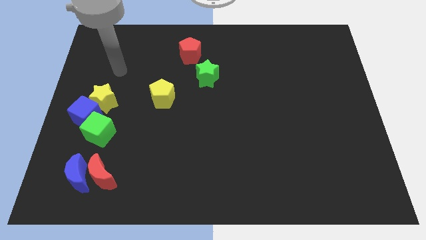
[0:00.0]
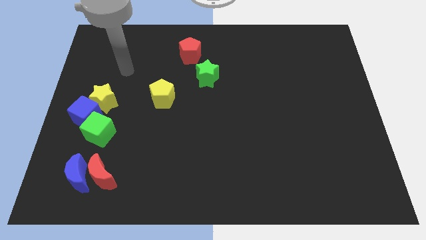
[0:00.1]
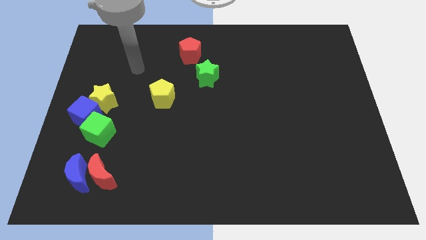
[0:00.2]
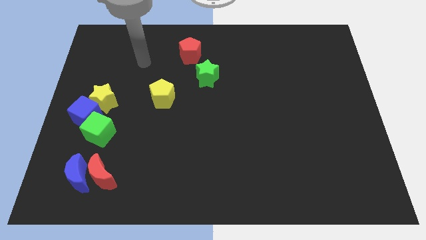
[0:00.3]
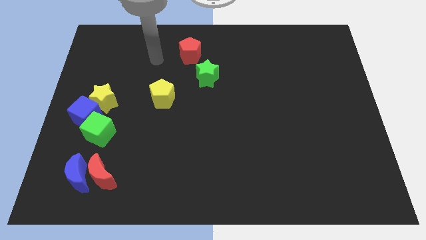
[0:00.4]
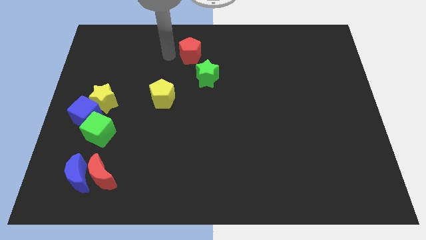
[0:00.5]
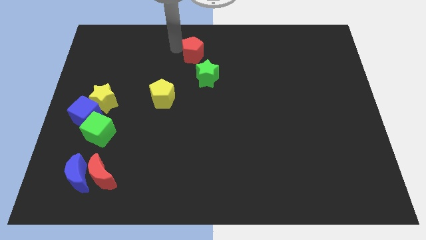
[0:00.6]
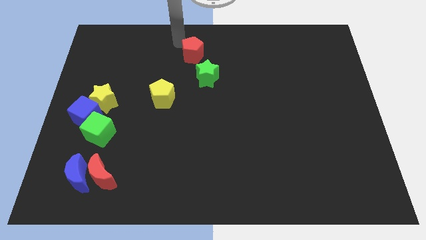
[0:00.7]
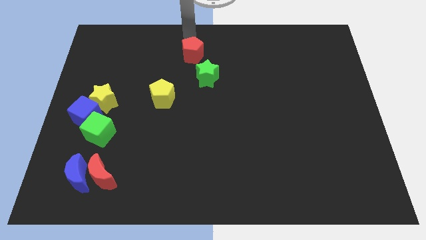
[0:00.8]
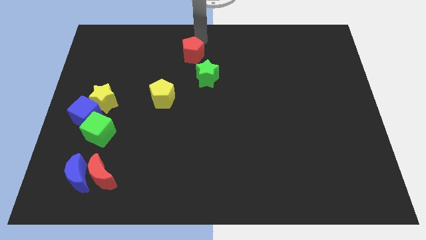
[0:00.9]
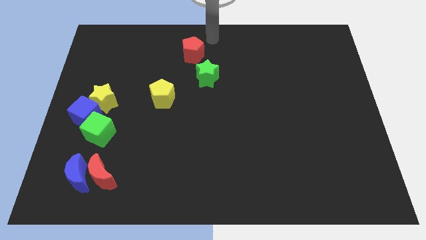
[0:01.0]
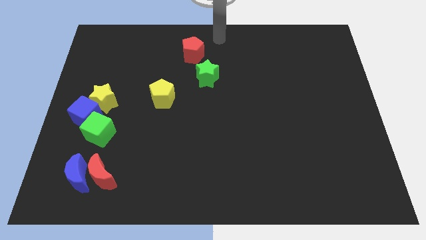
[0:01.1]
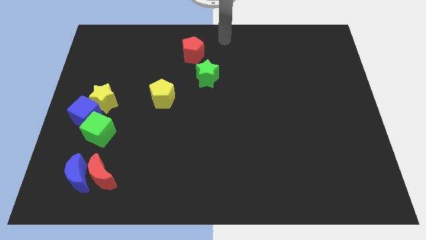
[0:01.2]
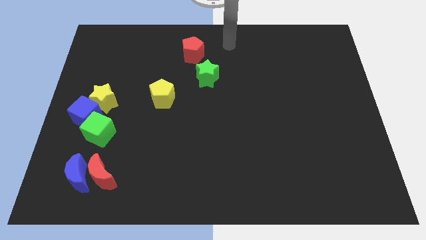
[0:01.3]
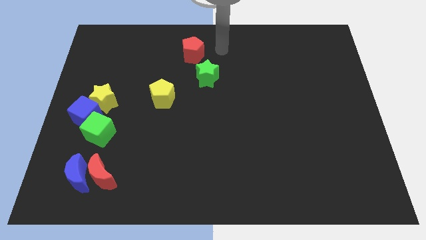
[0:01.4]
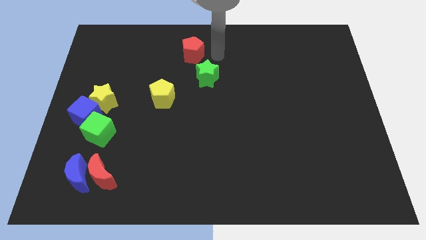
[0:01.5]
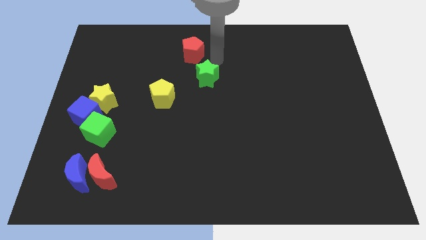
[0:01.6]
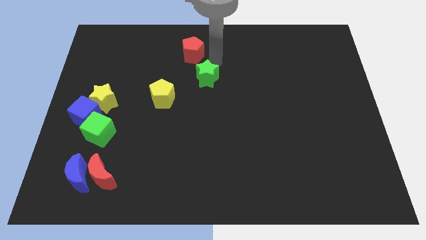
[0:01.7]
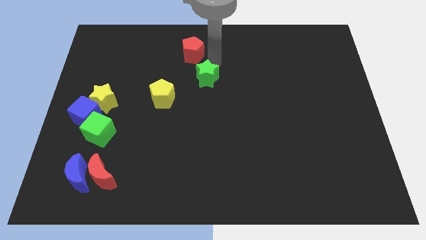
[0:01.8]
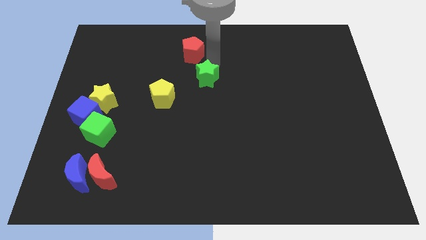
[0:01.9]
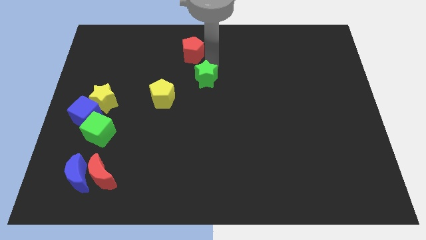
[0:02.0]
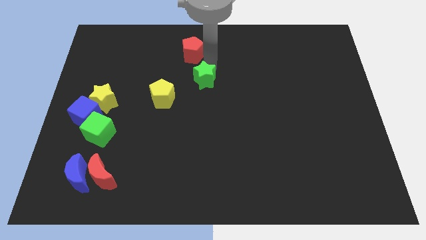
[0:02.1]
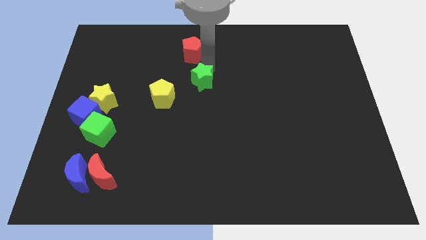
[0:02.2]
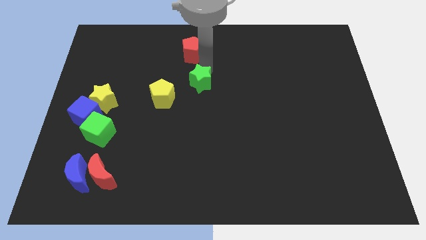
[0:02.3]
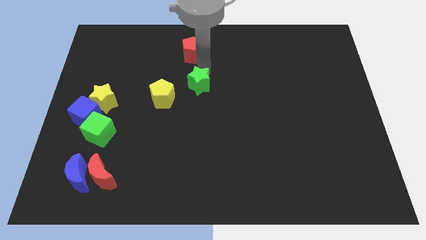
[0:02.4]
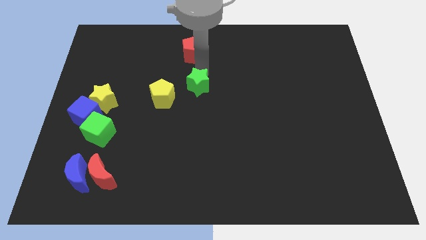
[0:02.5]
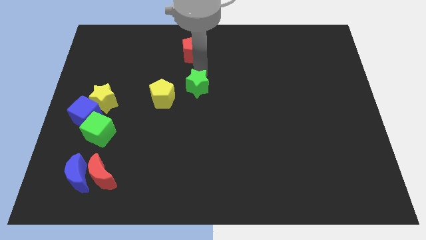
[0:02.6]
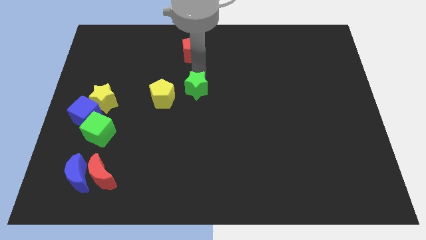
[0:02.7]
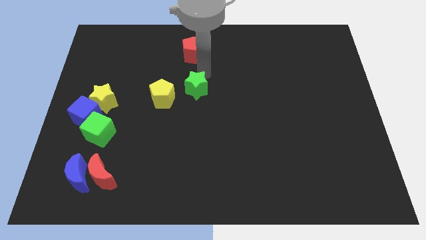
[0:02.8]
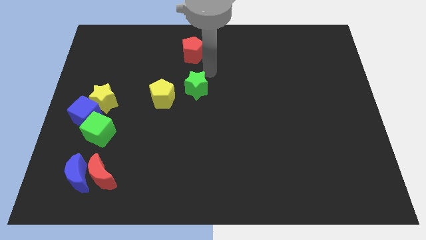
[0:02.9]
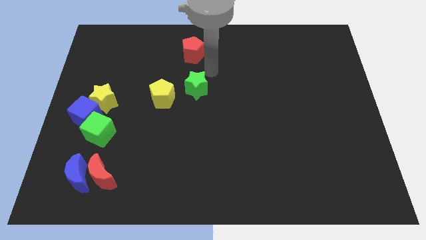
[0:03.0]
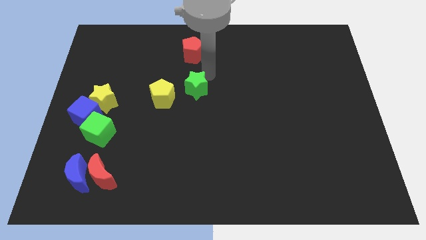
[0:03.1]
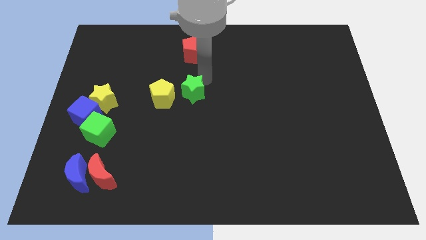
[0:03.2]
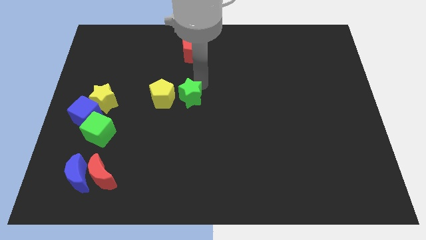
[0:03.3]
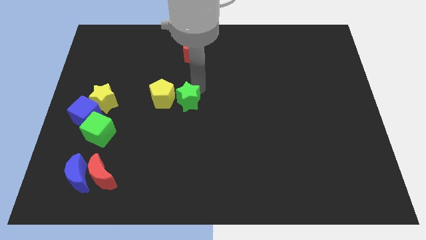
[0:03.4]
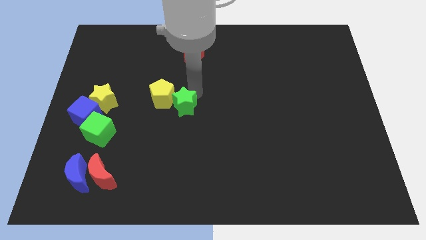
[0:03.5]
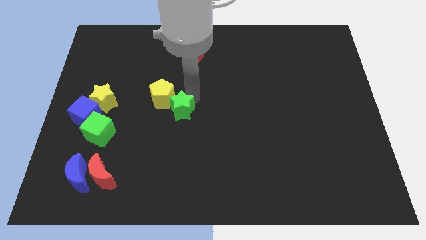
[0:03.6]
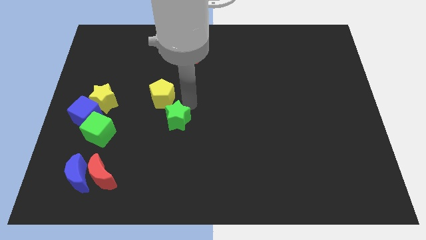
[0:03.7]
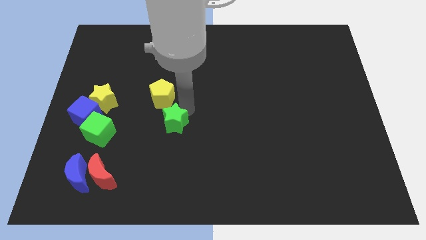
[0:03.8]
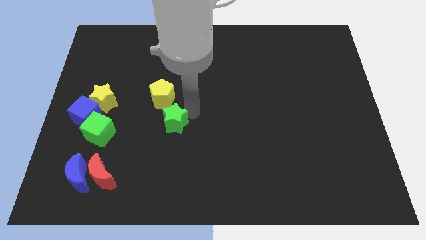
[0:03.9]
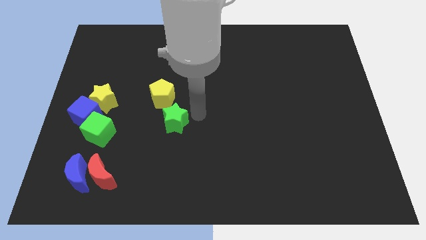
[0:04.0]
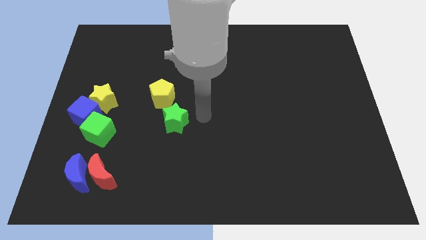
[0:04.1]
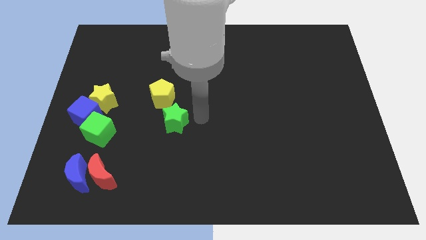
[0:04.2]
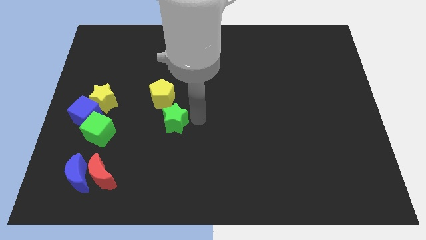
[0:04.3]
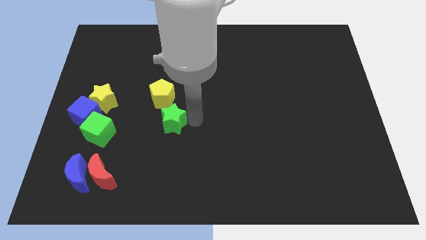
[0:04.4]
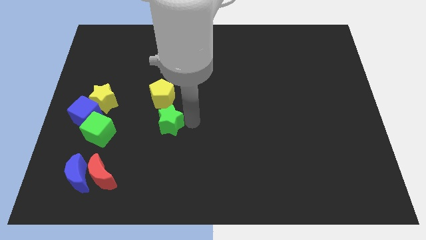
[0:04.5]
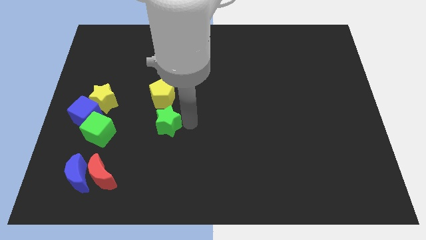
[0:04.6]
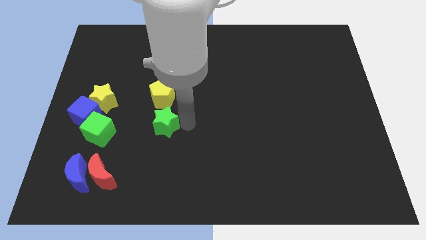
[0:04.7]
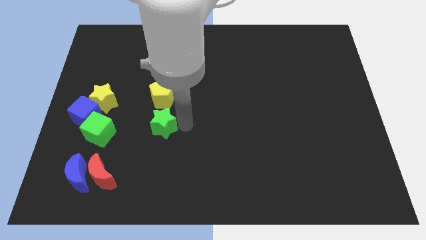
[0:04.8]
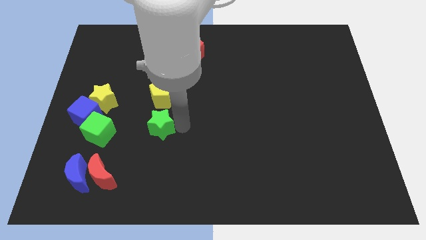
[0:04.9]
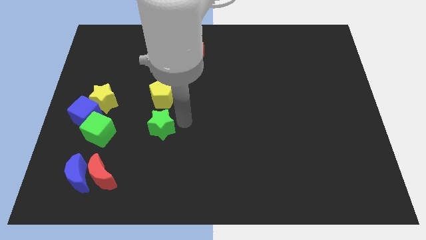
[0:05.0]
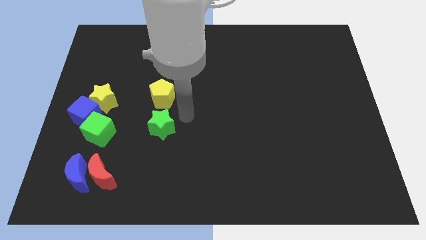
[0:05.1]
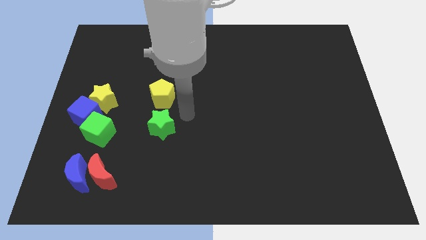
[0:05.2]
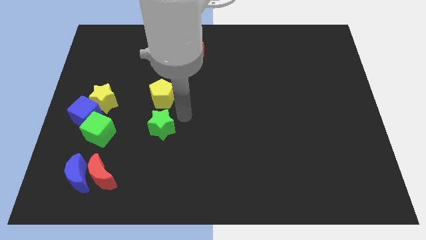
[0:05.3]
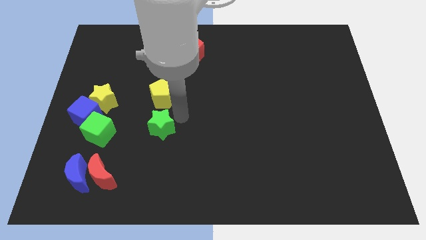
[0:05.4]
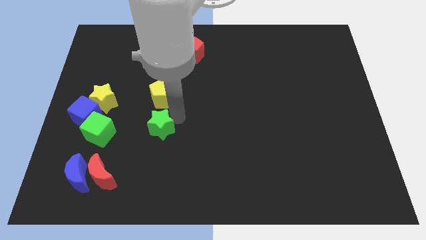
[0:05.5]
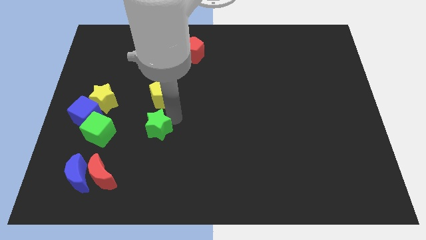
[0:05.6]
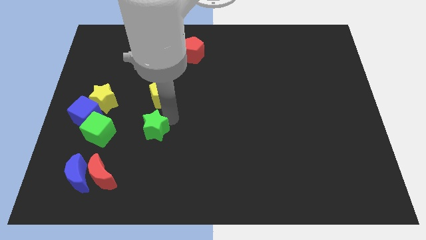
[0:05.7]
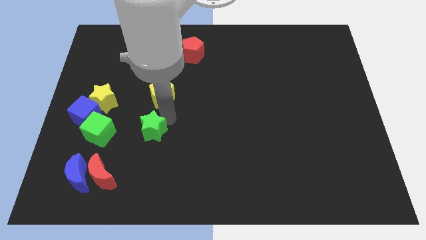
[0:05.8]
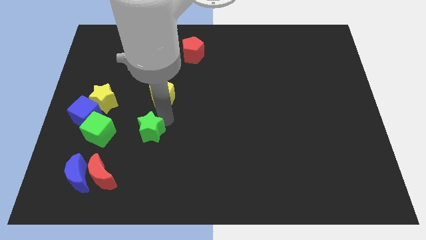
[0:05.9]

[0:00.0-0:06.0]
push the green star down and to the left diagonally

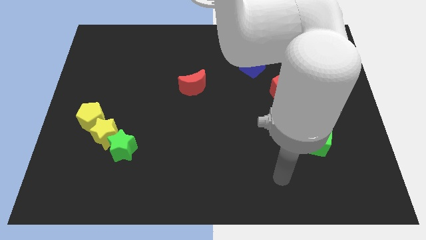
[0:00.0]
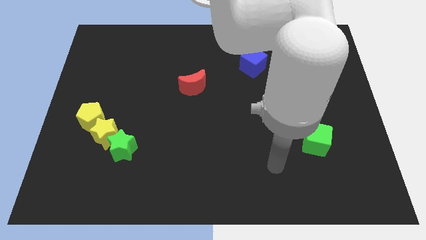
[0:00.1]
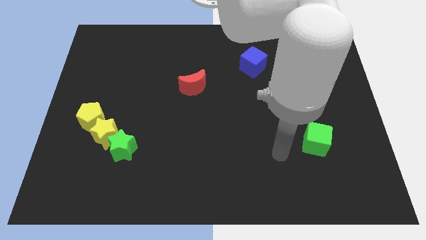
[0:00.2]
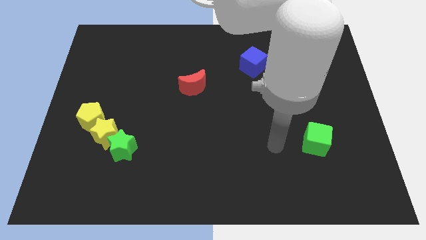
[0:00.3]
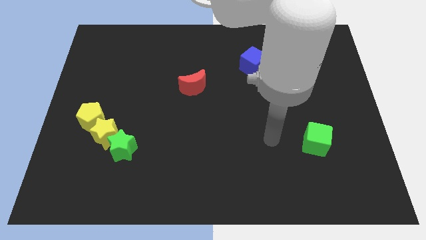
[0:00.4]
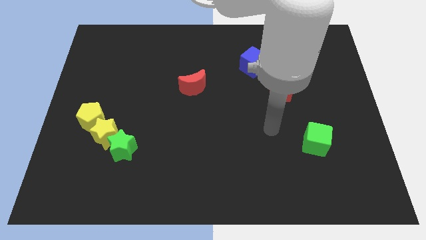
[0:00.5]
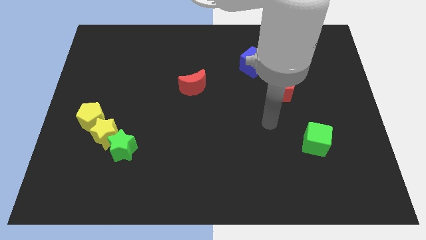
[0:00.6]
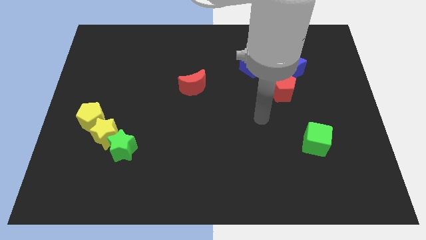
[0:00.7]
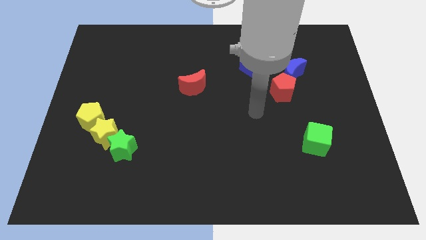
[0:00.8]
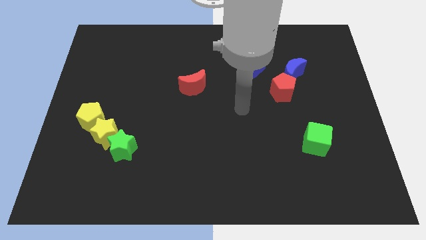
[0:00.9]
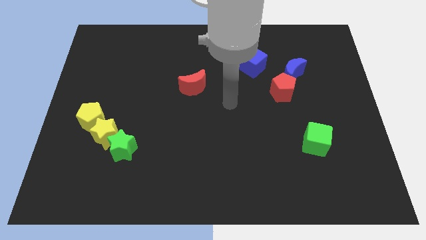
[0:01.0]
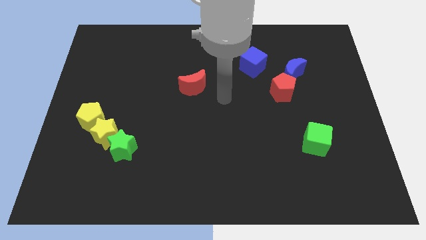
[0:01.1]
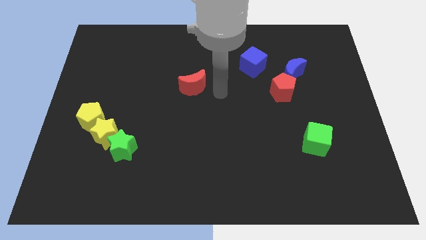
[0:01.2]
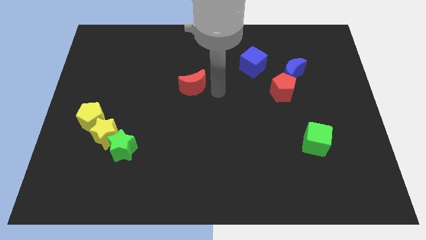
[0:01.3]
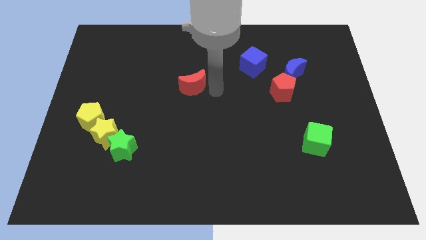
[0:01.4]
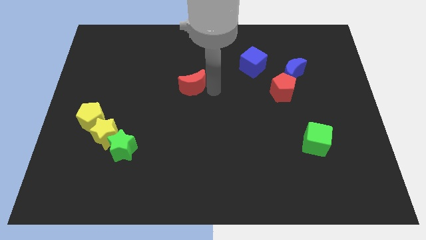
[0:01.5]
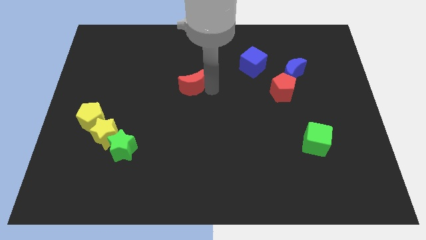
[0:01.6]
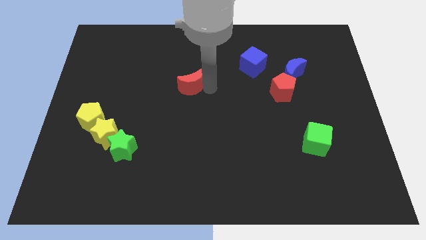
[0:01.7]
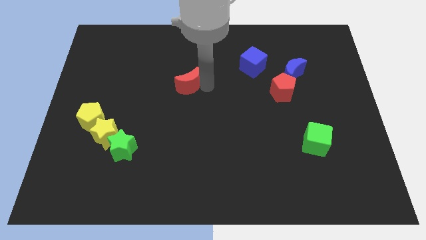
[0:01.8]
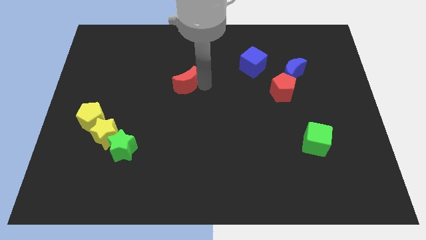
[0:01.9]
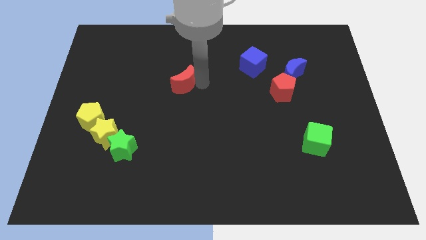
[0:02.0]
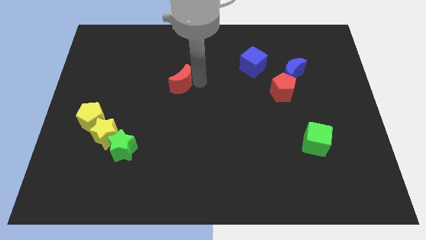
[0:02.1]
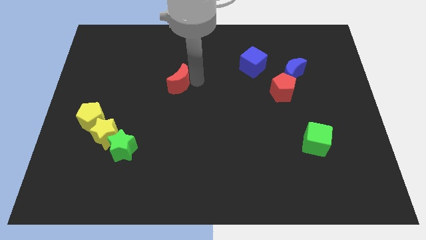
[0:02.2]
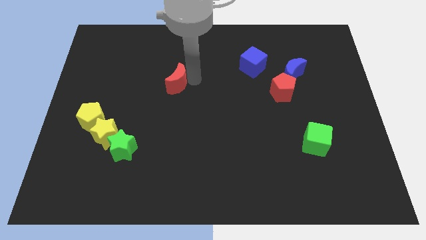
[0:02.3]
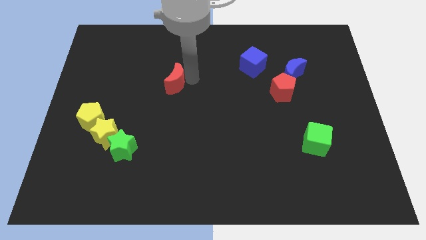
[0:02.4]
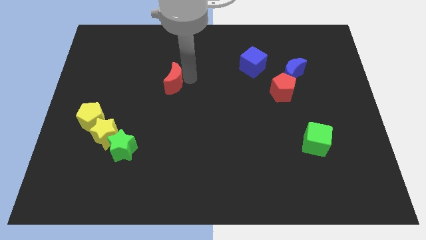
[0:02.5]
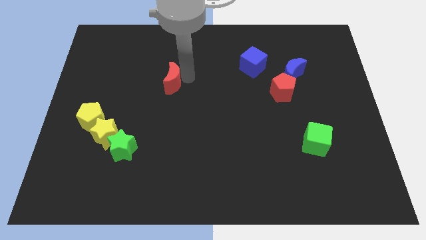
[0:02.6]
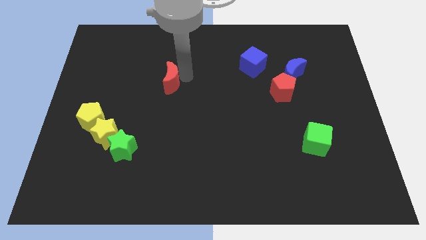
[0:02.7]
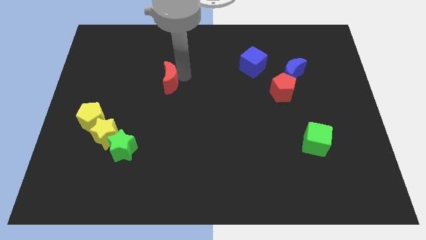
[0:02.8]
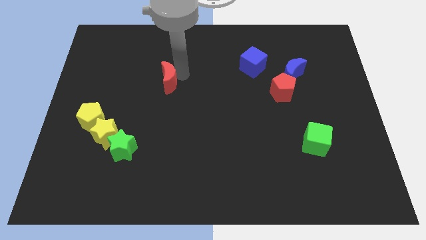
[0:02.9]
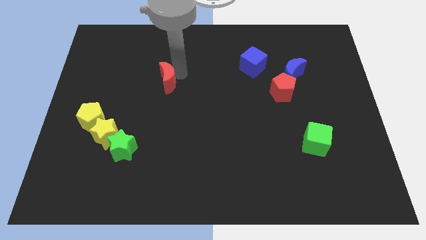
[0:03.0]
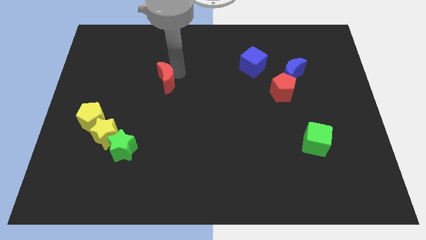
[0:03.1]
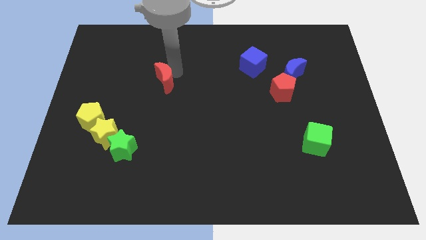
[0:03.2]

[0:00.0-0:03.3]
move the red moon to the left somewhat
